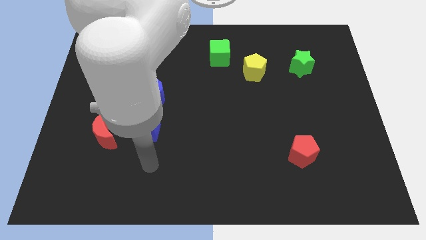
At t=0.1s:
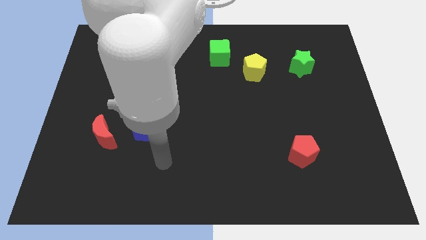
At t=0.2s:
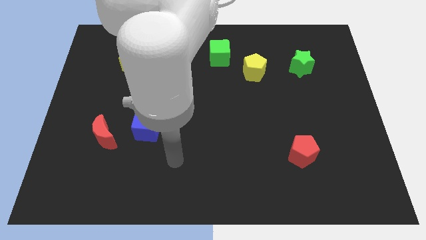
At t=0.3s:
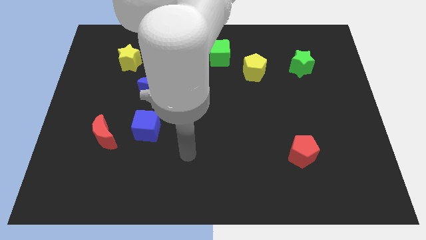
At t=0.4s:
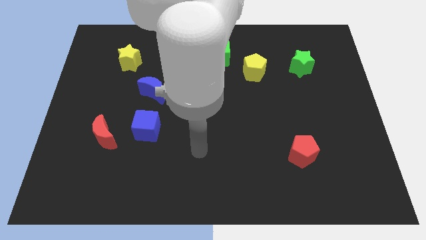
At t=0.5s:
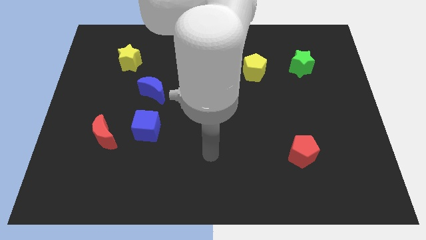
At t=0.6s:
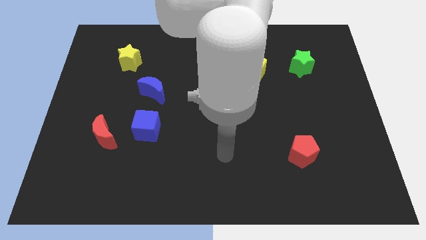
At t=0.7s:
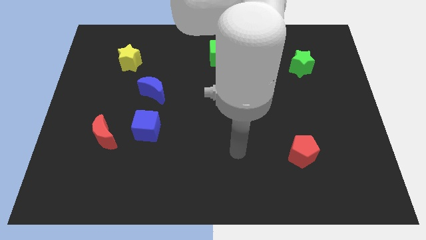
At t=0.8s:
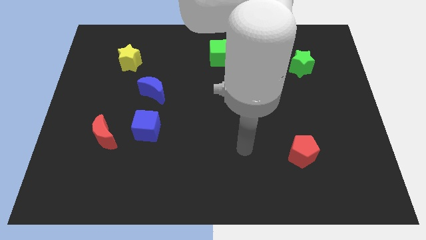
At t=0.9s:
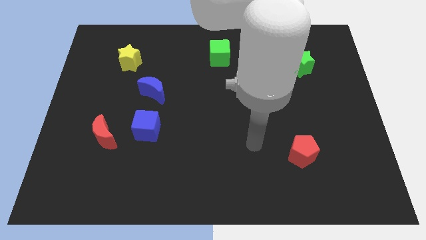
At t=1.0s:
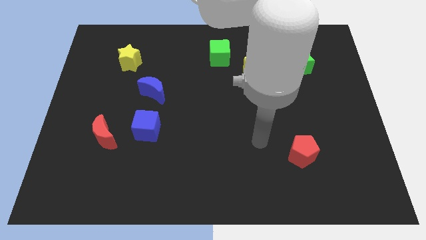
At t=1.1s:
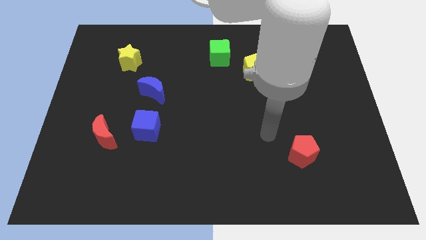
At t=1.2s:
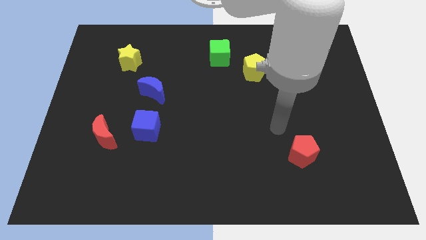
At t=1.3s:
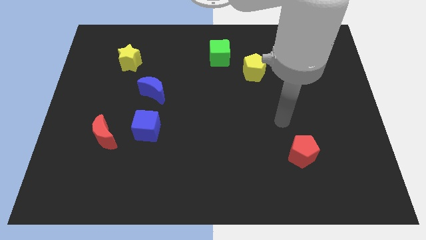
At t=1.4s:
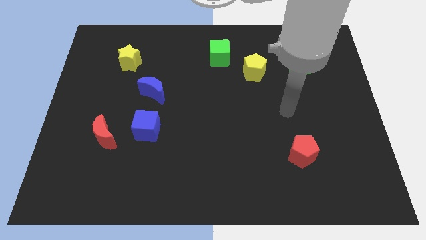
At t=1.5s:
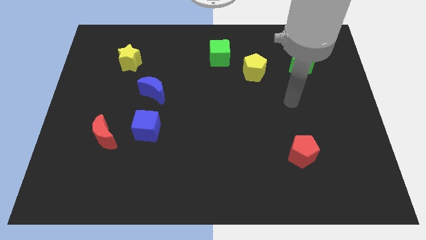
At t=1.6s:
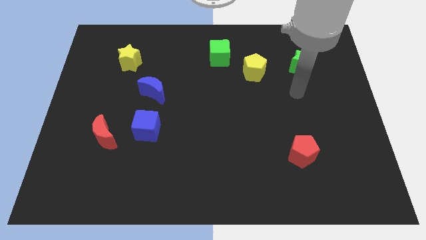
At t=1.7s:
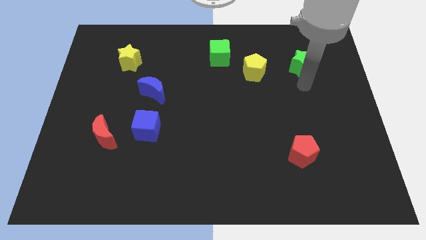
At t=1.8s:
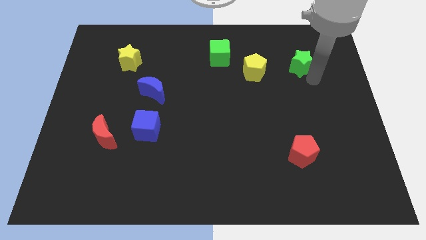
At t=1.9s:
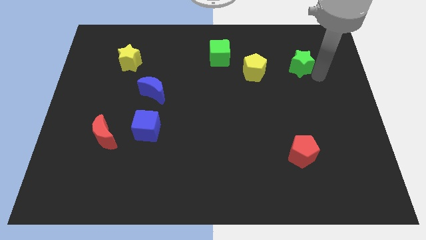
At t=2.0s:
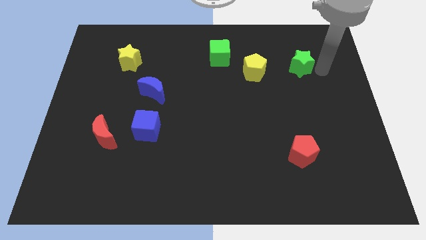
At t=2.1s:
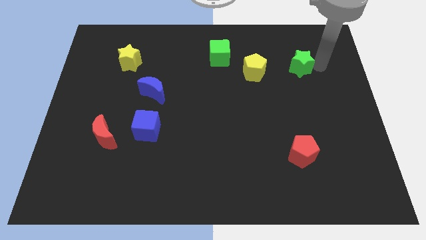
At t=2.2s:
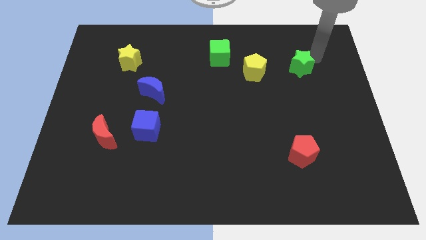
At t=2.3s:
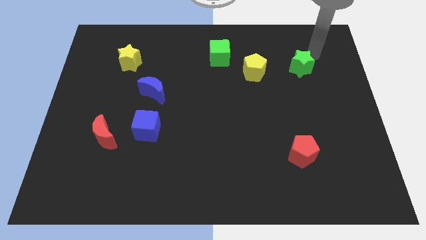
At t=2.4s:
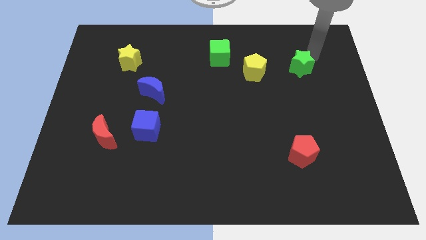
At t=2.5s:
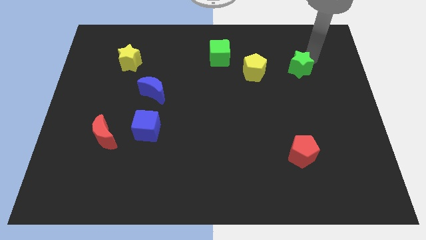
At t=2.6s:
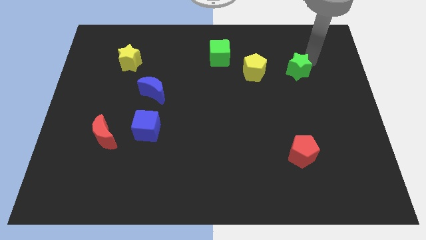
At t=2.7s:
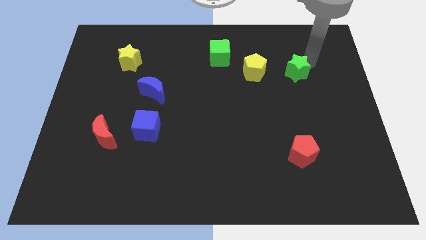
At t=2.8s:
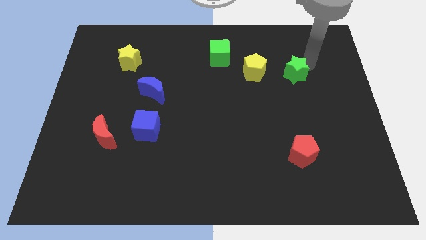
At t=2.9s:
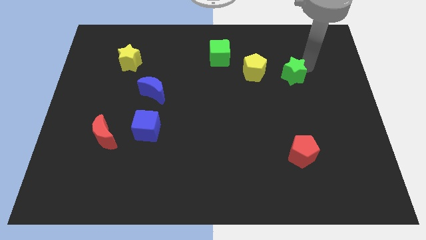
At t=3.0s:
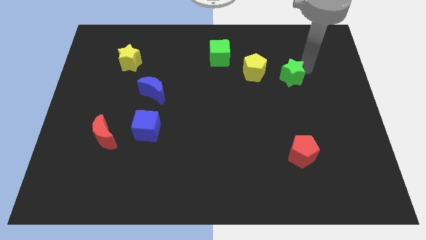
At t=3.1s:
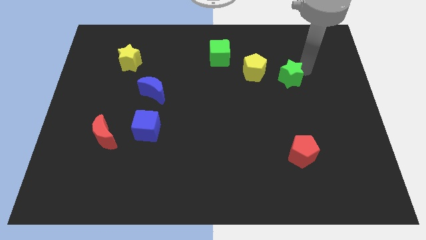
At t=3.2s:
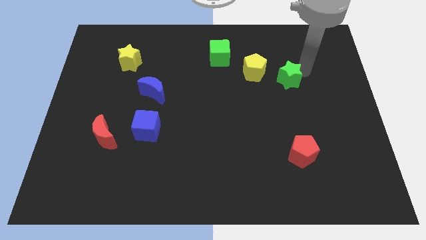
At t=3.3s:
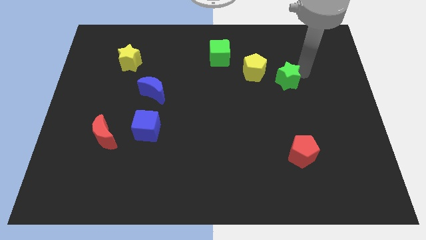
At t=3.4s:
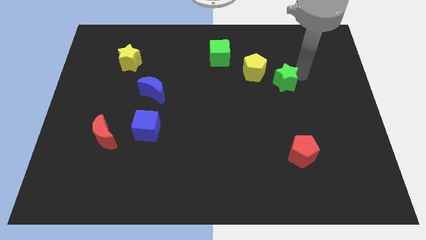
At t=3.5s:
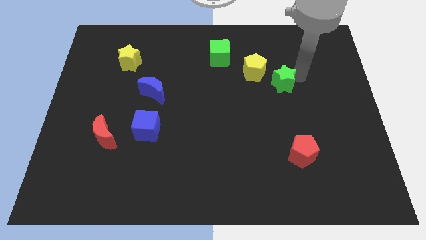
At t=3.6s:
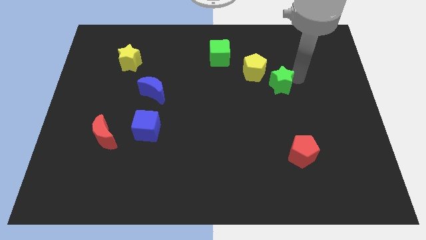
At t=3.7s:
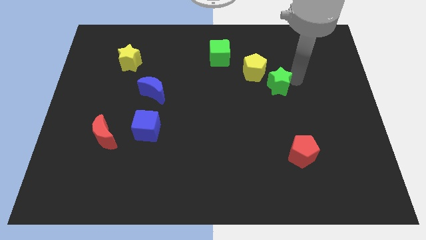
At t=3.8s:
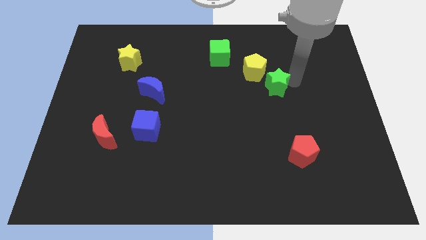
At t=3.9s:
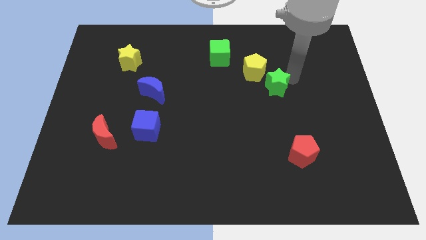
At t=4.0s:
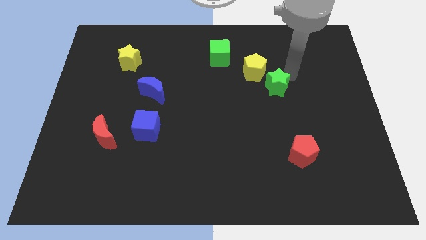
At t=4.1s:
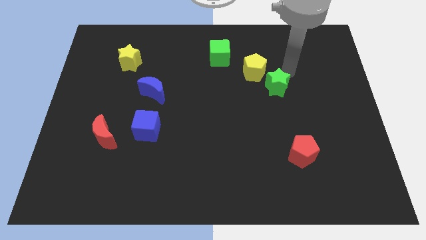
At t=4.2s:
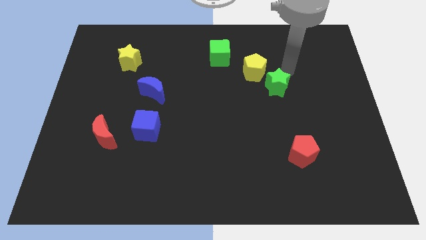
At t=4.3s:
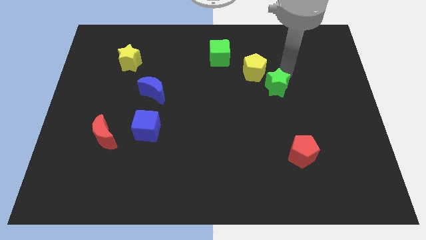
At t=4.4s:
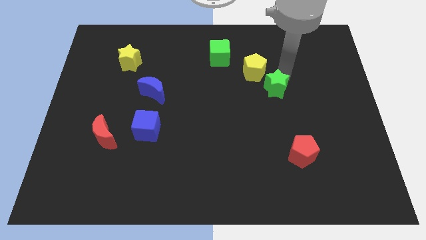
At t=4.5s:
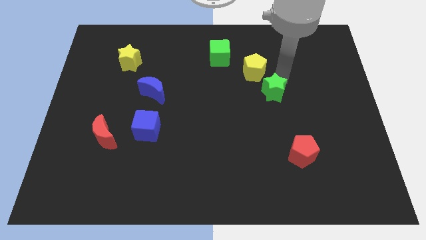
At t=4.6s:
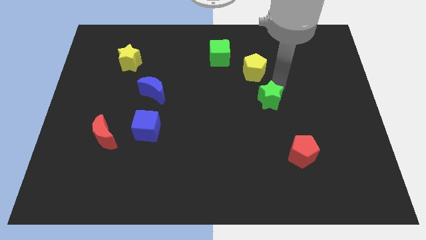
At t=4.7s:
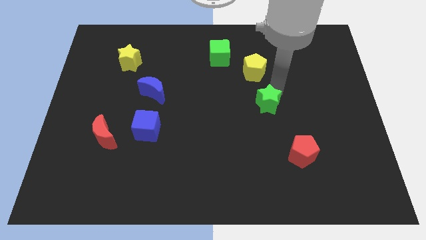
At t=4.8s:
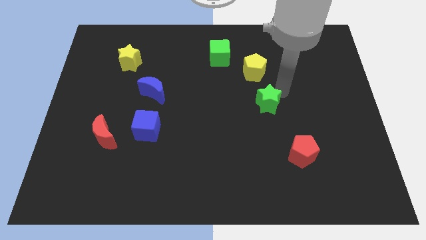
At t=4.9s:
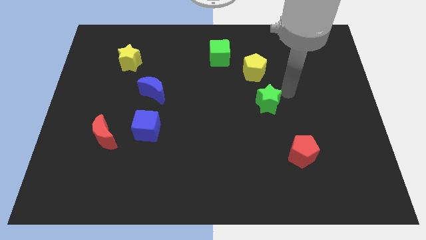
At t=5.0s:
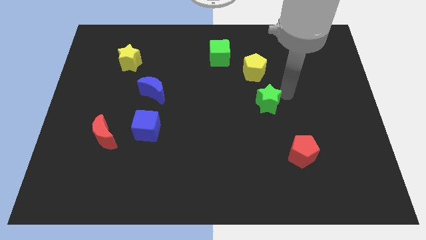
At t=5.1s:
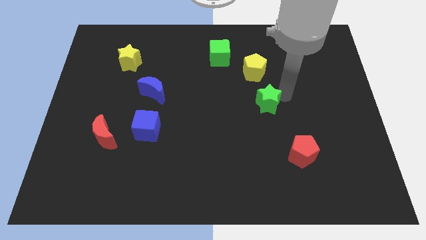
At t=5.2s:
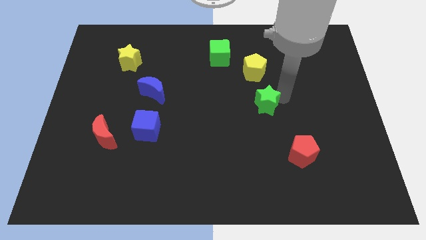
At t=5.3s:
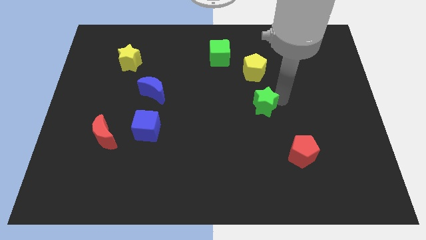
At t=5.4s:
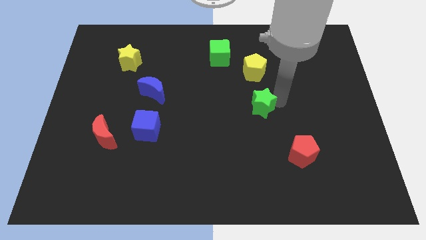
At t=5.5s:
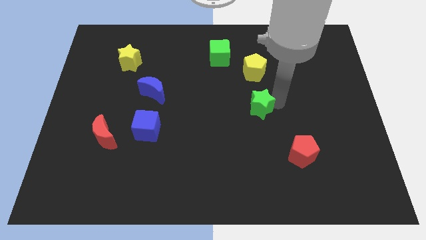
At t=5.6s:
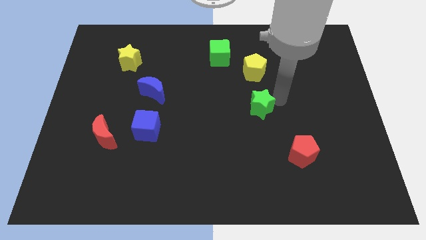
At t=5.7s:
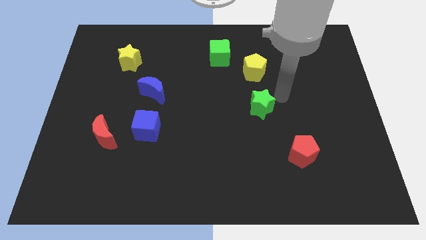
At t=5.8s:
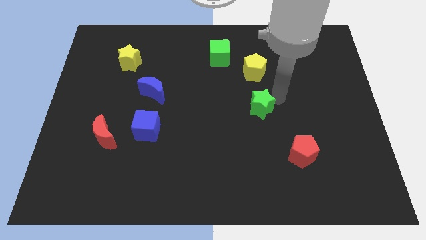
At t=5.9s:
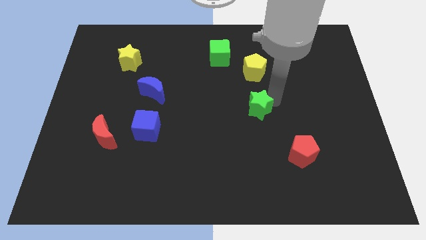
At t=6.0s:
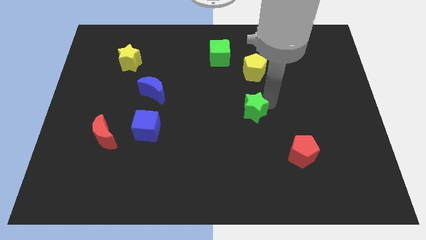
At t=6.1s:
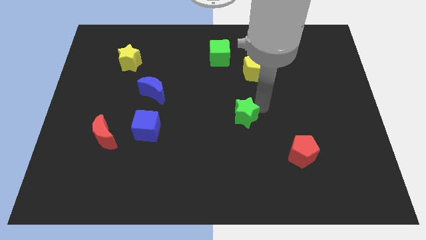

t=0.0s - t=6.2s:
push the green star downwards and to the left diagonally

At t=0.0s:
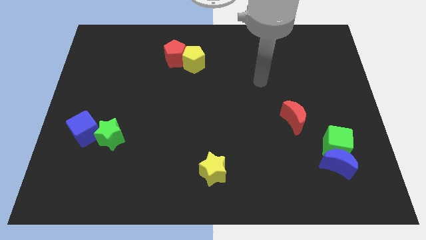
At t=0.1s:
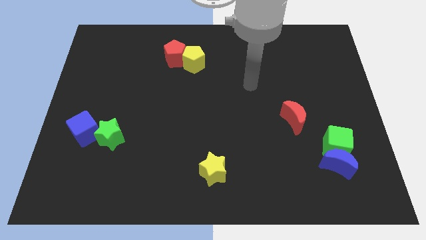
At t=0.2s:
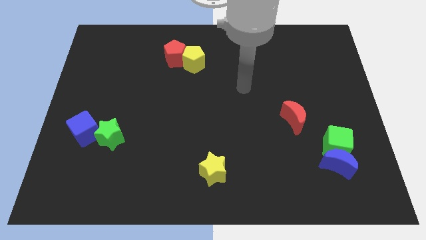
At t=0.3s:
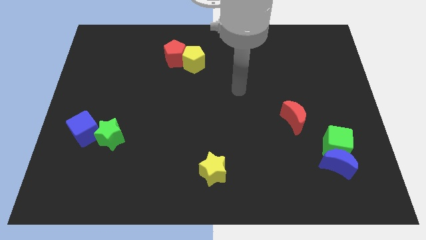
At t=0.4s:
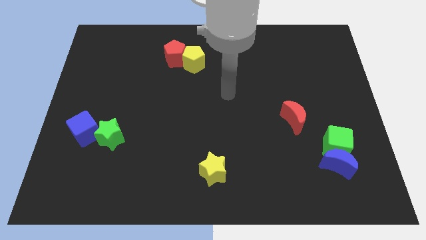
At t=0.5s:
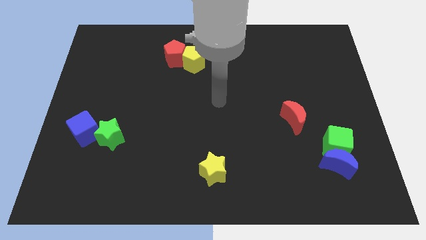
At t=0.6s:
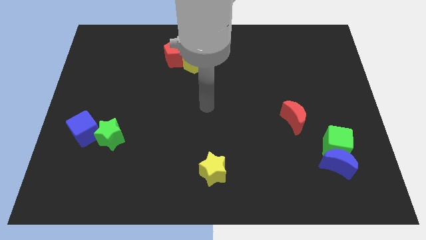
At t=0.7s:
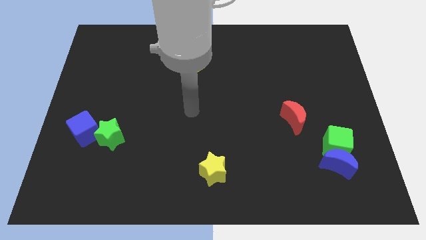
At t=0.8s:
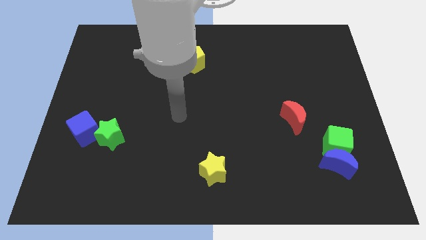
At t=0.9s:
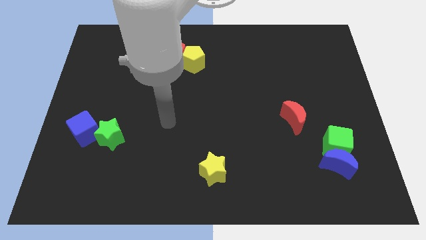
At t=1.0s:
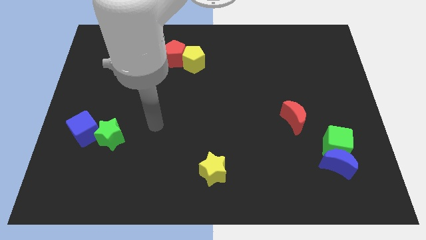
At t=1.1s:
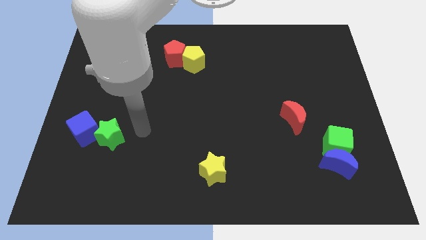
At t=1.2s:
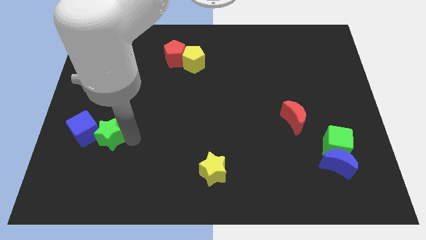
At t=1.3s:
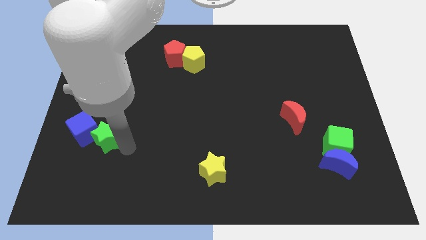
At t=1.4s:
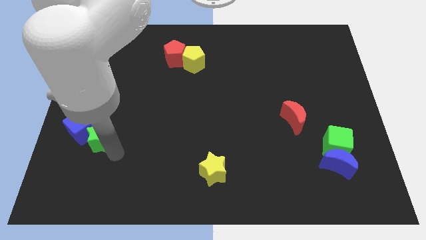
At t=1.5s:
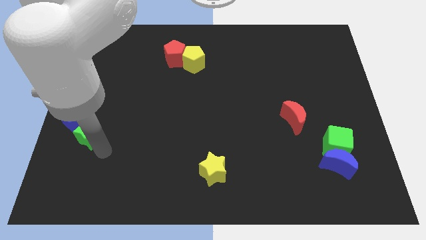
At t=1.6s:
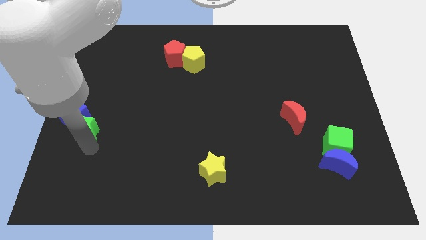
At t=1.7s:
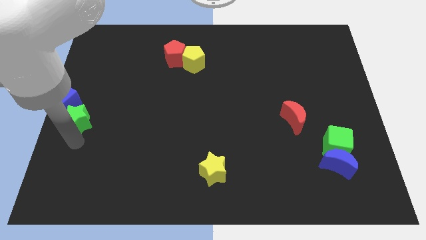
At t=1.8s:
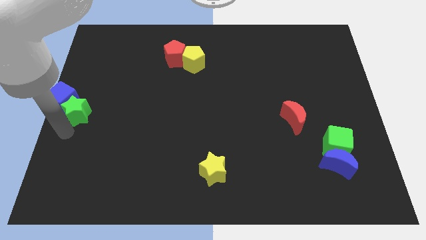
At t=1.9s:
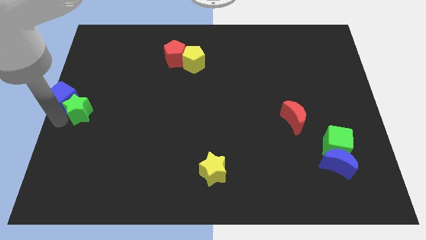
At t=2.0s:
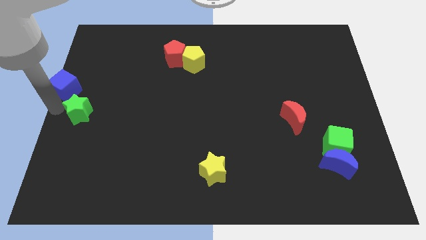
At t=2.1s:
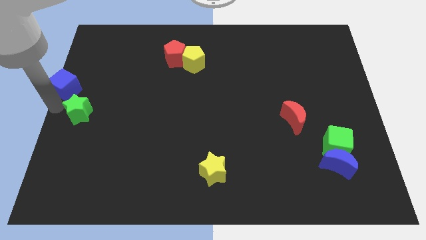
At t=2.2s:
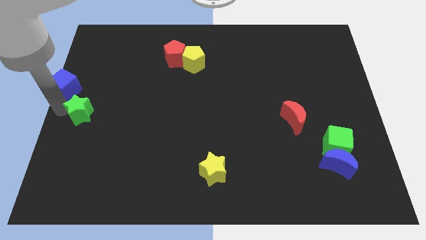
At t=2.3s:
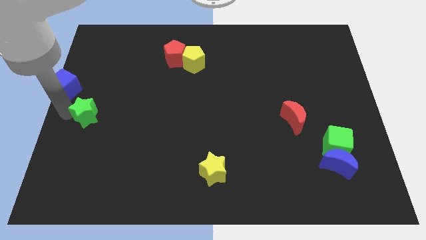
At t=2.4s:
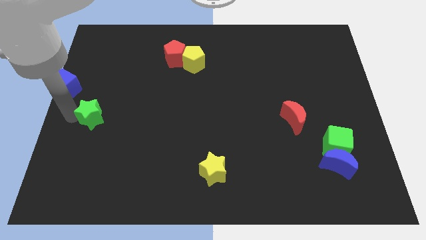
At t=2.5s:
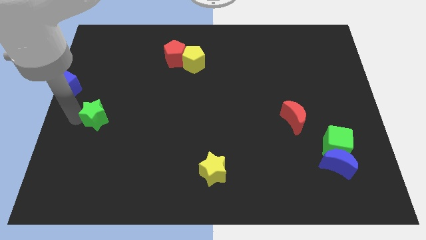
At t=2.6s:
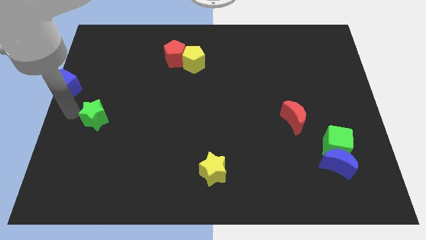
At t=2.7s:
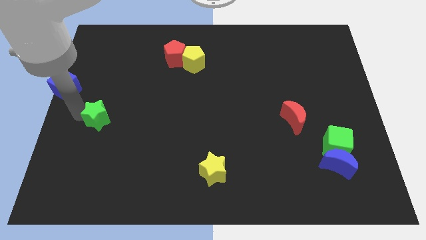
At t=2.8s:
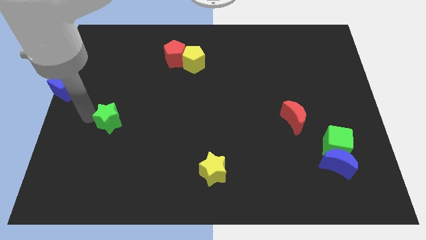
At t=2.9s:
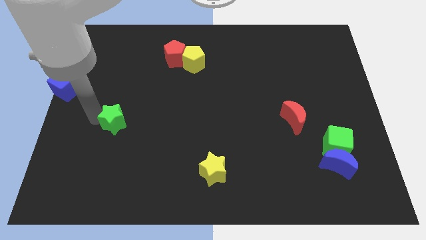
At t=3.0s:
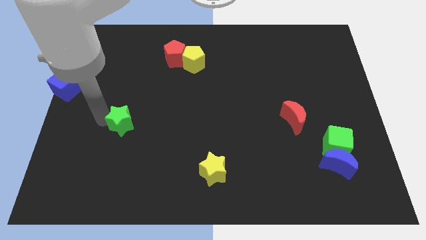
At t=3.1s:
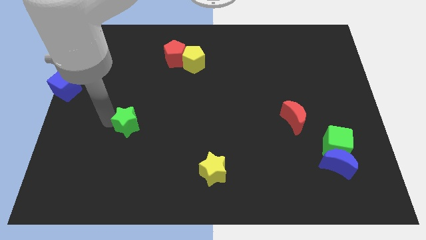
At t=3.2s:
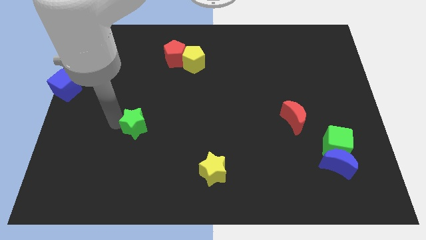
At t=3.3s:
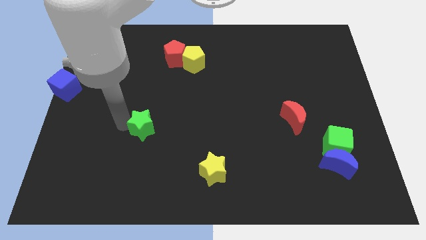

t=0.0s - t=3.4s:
slide the green star a little to the right
